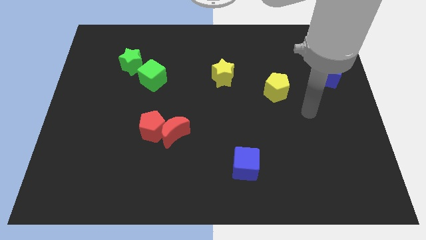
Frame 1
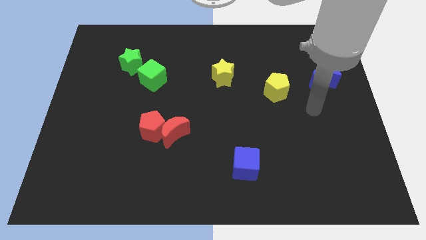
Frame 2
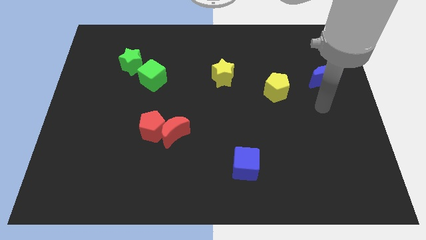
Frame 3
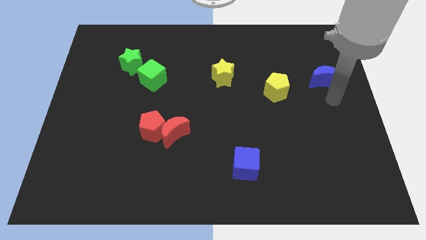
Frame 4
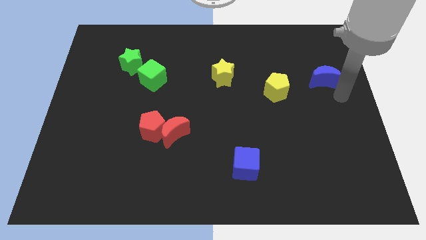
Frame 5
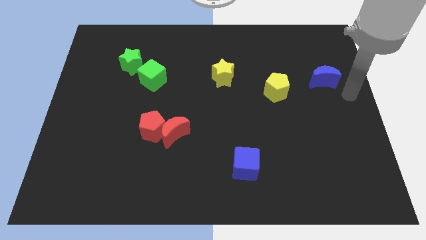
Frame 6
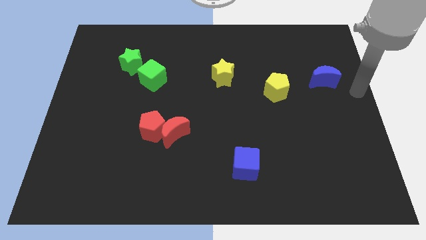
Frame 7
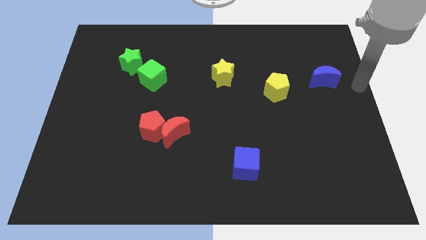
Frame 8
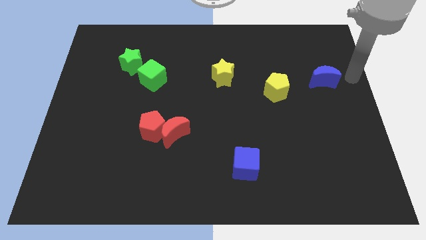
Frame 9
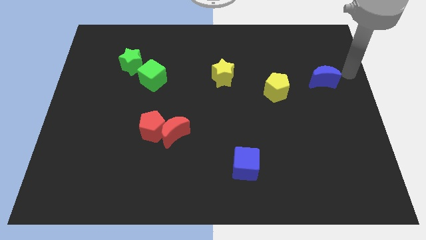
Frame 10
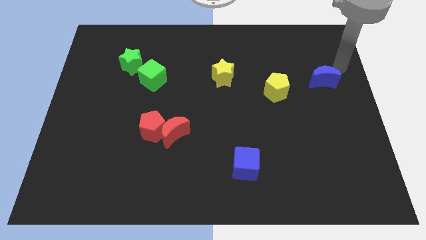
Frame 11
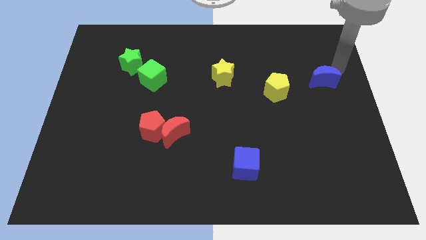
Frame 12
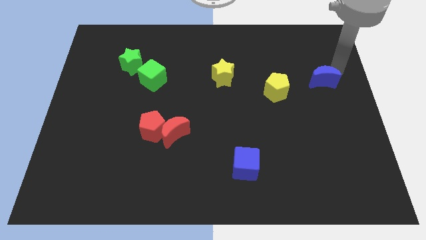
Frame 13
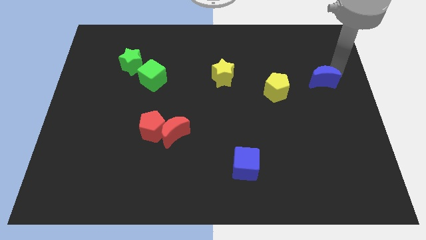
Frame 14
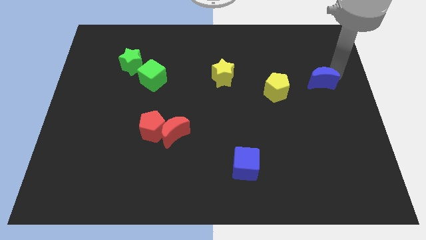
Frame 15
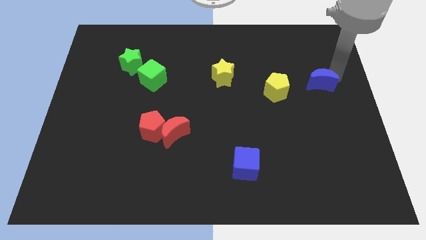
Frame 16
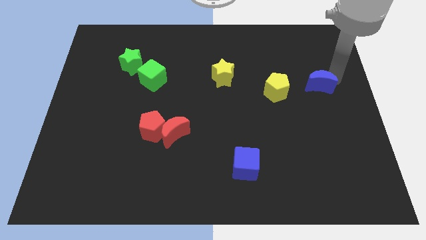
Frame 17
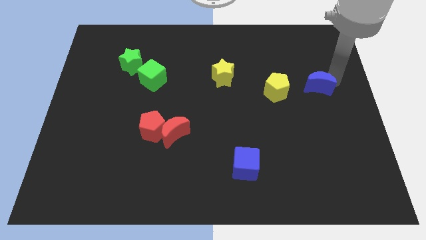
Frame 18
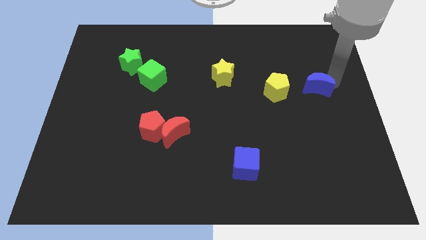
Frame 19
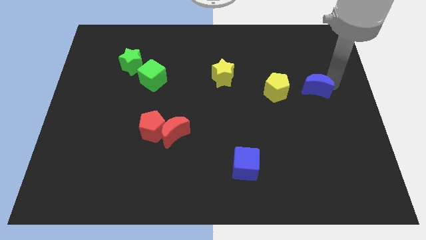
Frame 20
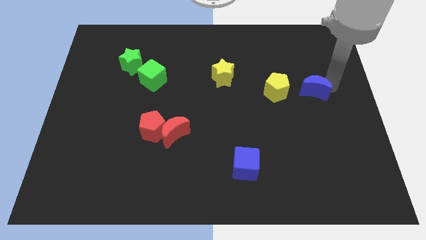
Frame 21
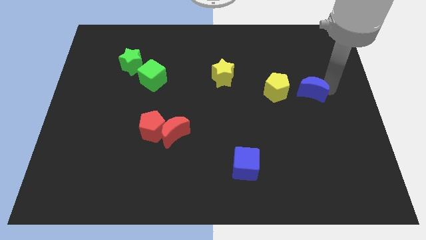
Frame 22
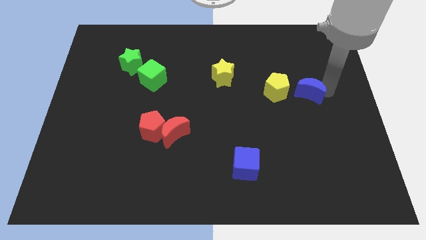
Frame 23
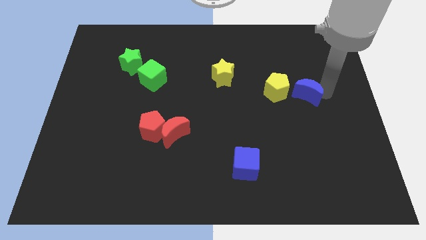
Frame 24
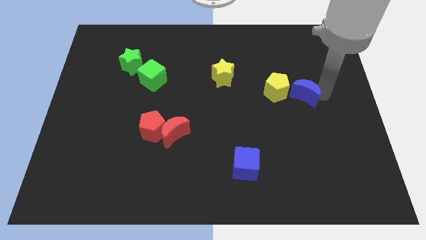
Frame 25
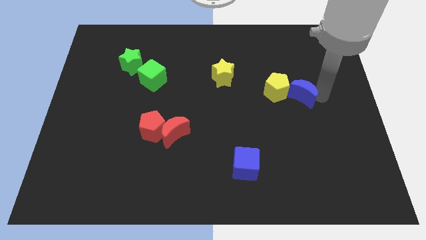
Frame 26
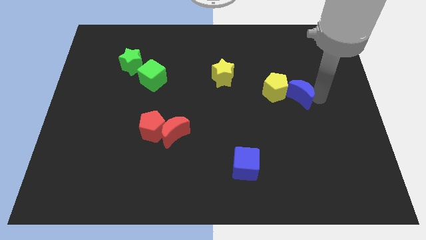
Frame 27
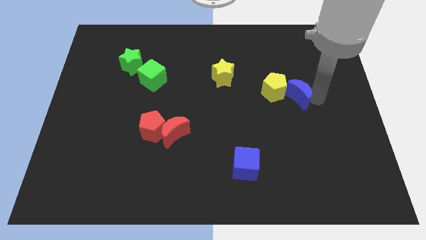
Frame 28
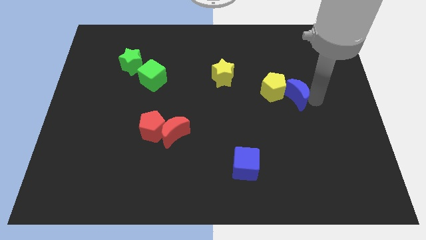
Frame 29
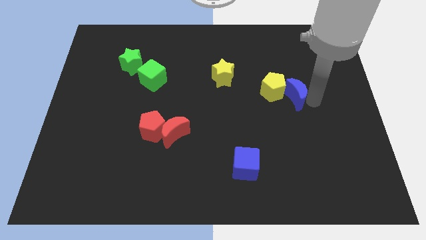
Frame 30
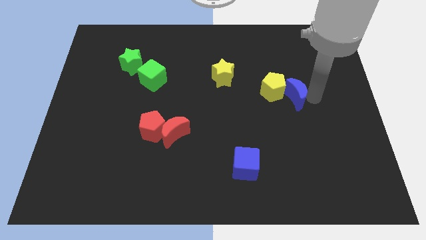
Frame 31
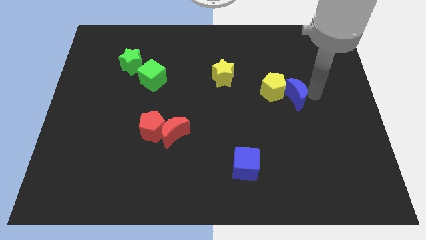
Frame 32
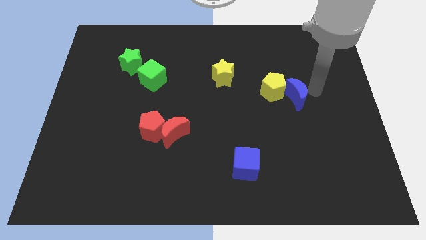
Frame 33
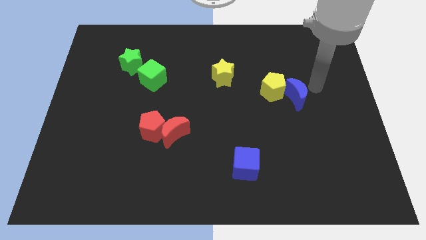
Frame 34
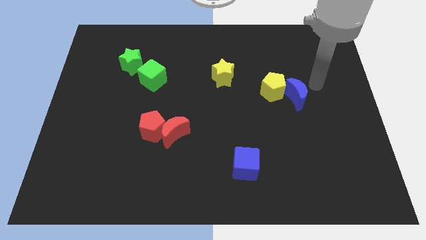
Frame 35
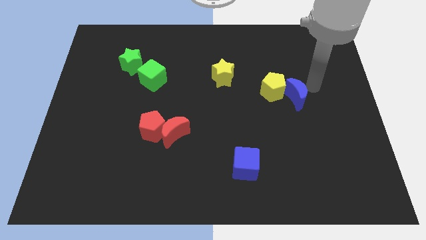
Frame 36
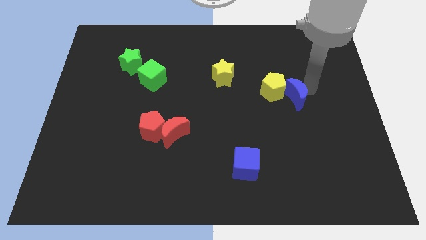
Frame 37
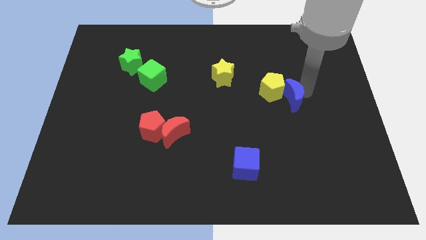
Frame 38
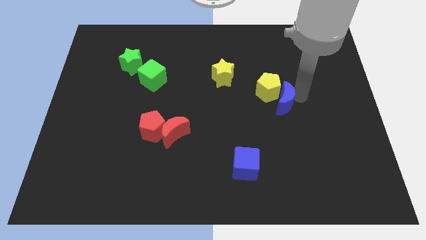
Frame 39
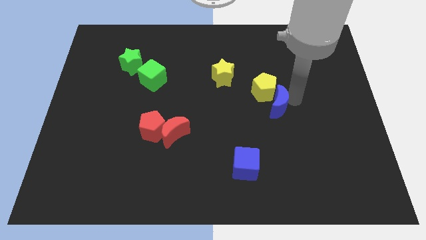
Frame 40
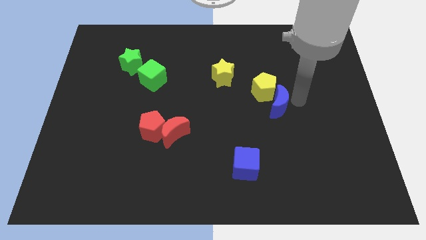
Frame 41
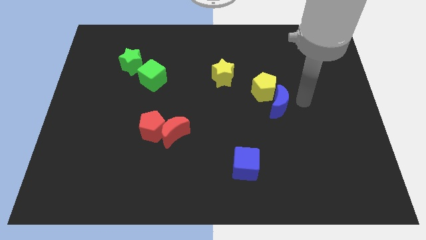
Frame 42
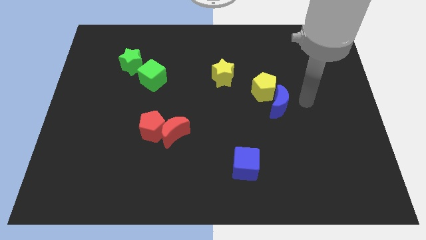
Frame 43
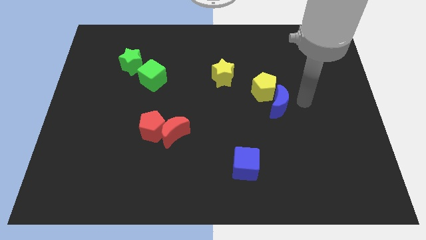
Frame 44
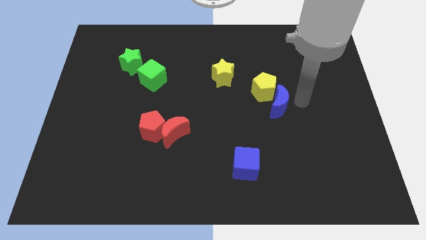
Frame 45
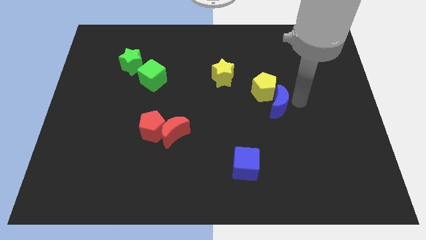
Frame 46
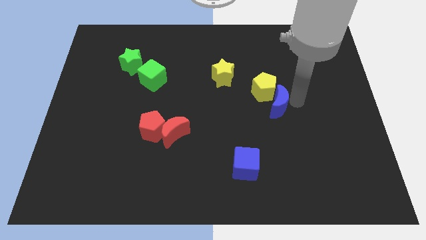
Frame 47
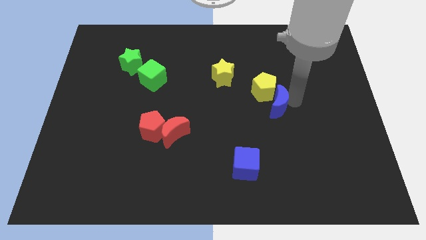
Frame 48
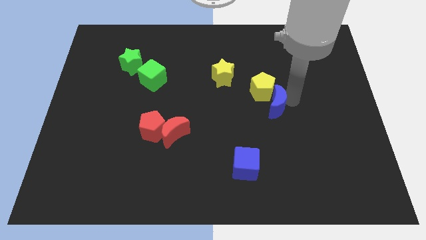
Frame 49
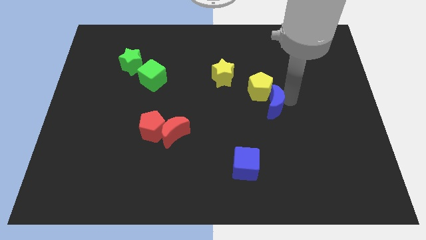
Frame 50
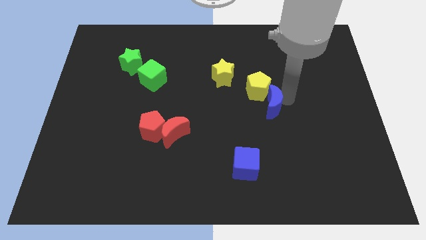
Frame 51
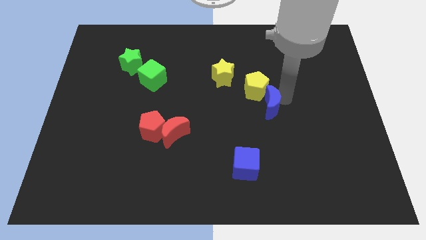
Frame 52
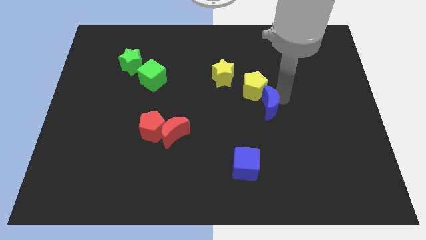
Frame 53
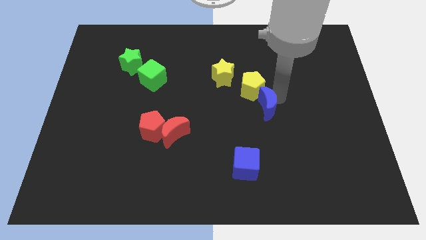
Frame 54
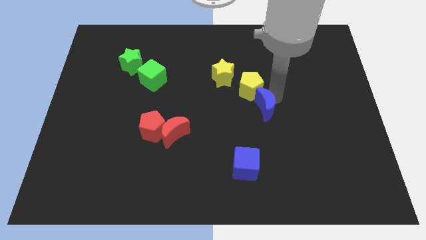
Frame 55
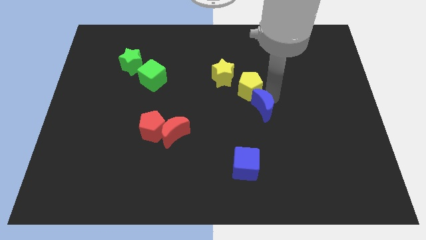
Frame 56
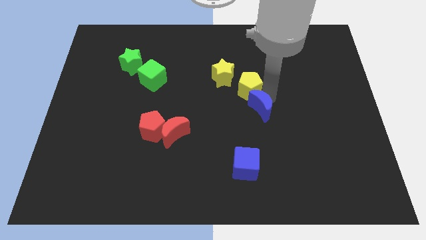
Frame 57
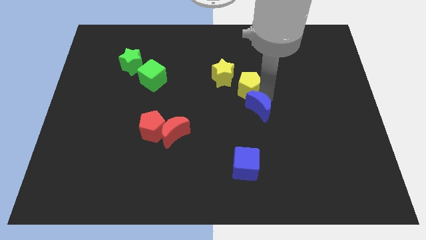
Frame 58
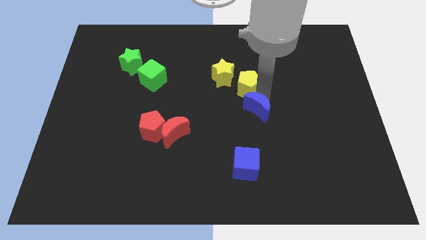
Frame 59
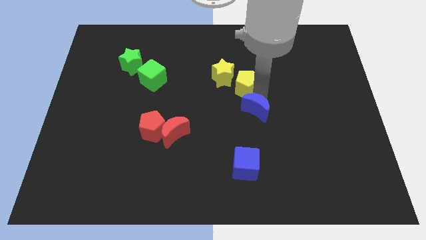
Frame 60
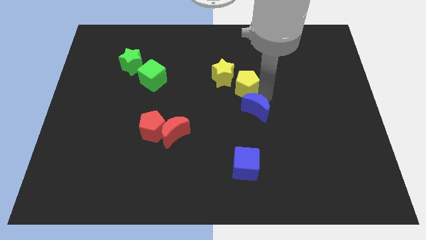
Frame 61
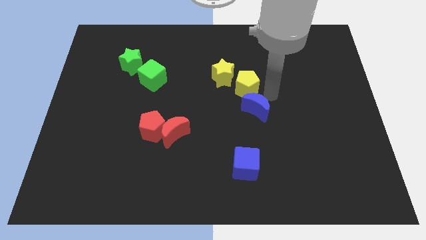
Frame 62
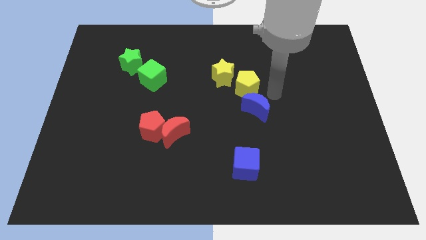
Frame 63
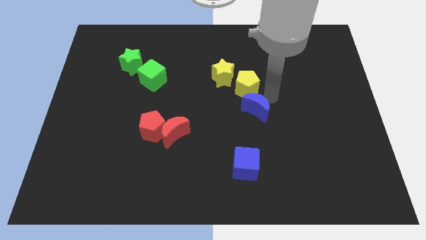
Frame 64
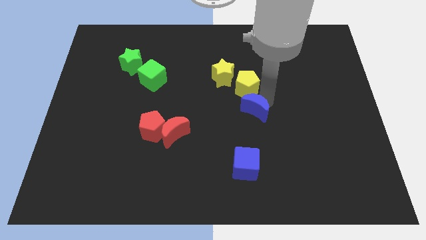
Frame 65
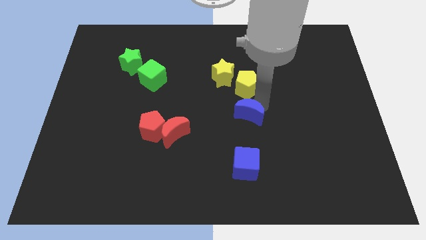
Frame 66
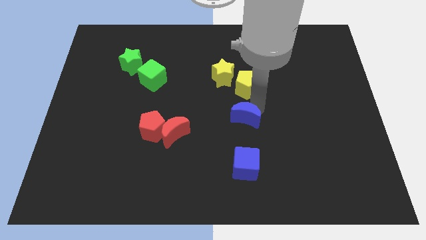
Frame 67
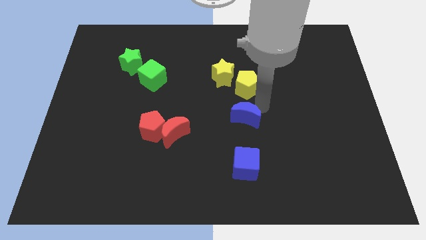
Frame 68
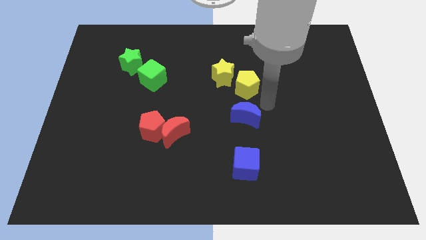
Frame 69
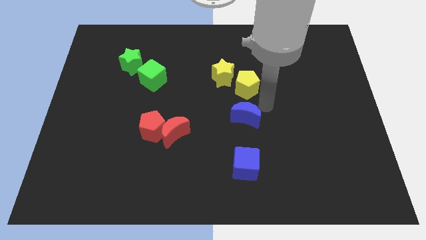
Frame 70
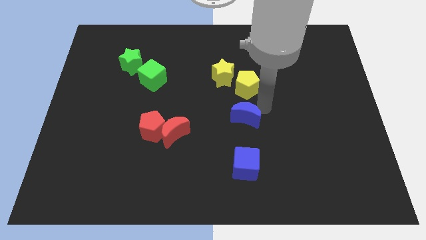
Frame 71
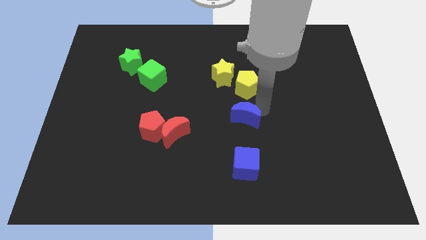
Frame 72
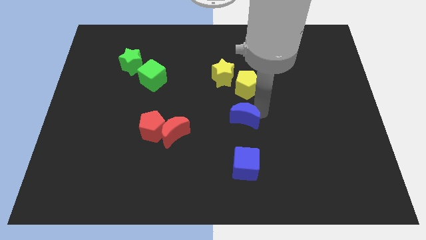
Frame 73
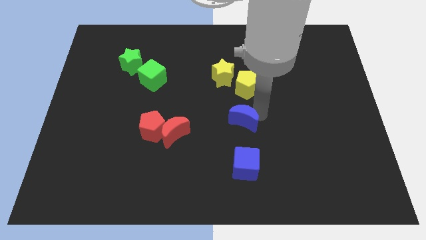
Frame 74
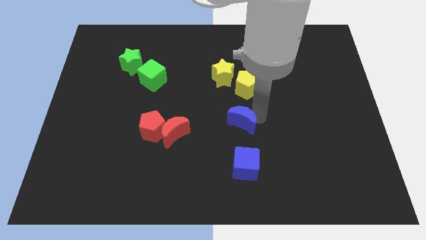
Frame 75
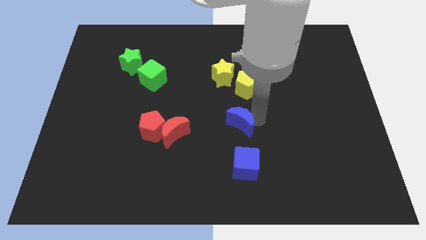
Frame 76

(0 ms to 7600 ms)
move the blue moon right of the red moon

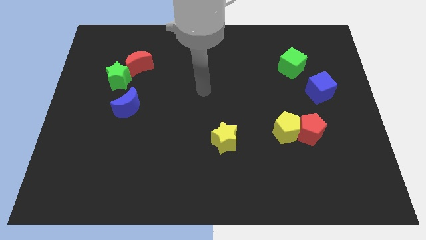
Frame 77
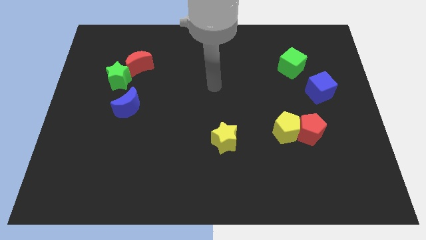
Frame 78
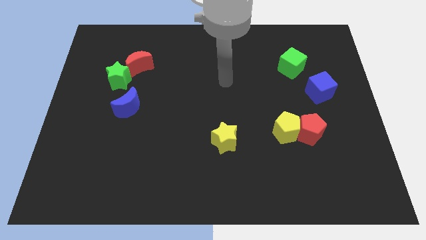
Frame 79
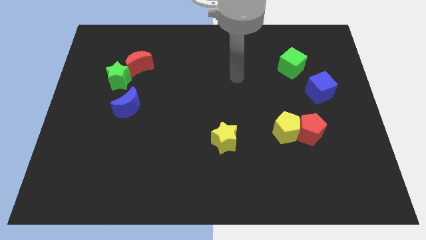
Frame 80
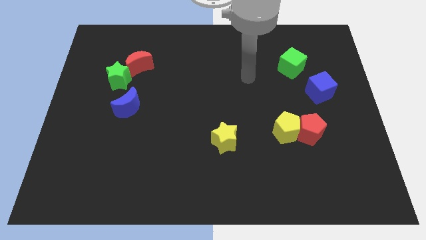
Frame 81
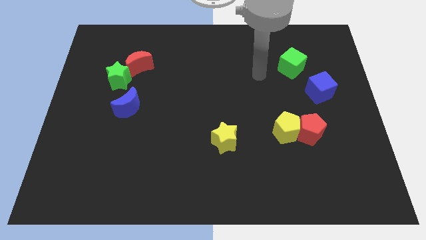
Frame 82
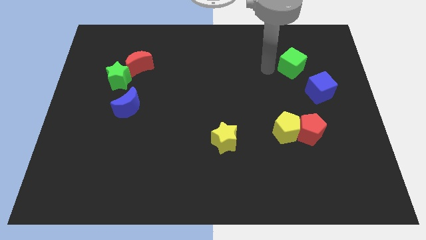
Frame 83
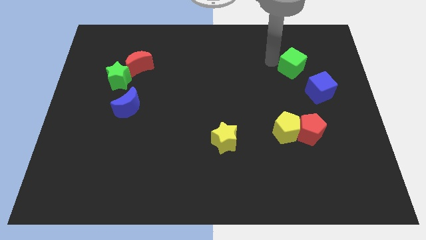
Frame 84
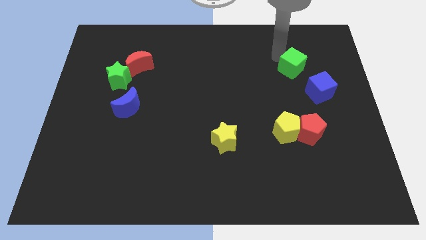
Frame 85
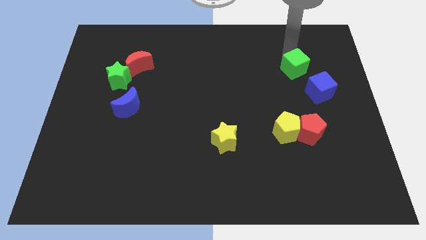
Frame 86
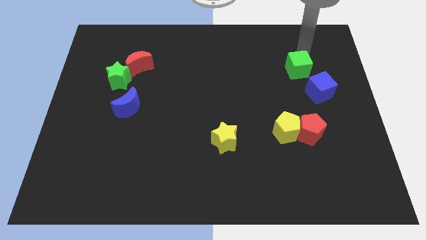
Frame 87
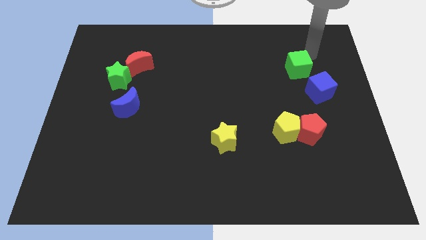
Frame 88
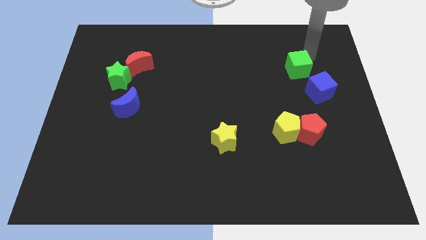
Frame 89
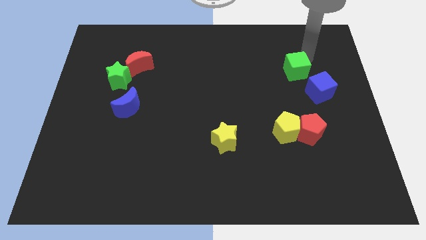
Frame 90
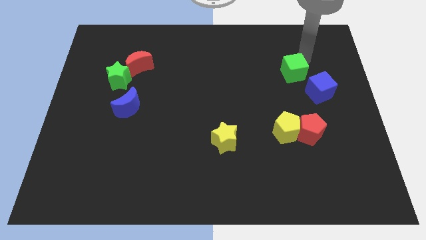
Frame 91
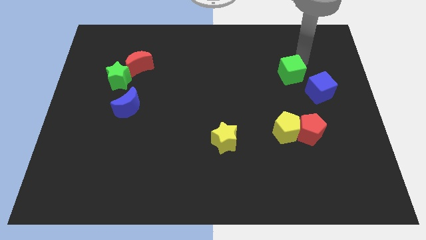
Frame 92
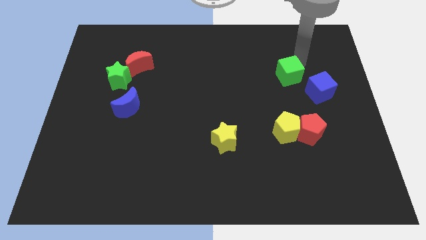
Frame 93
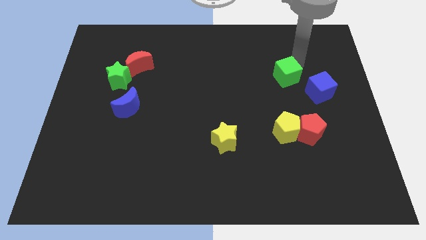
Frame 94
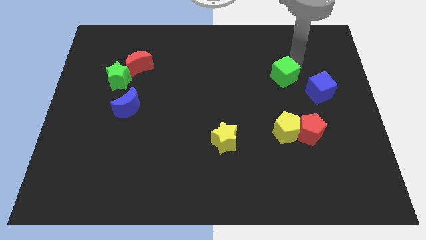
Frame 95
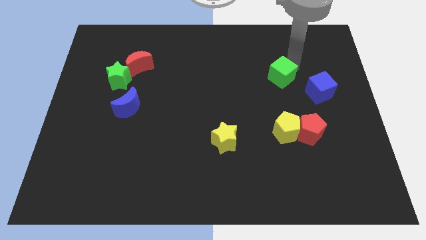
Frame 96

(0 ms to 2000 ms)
put the green cube just left of the blue cube
